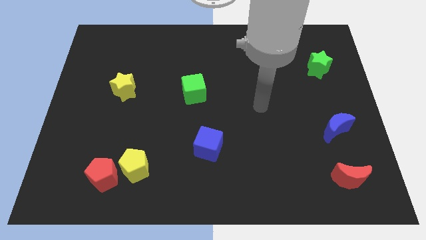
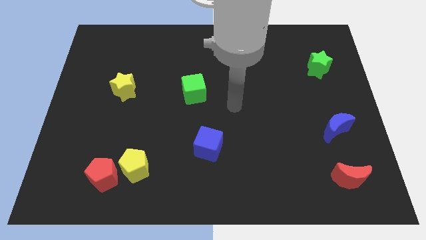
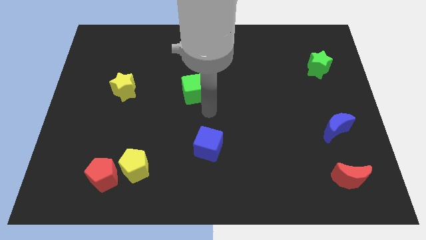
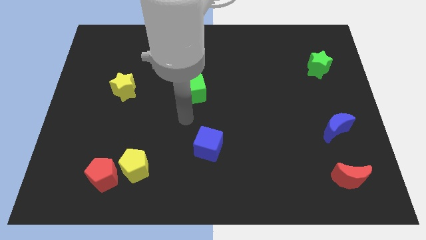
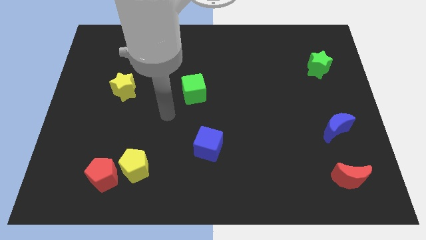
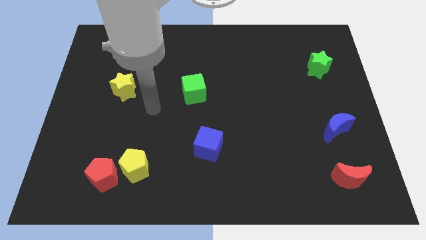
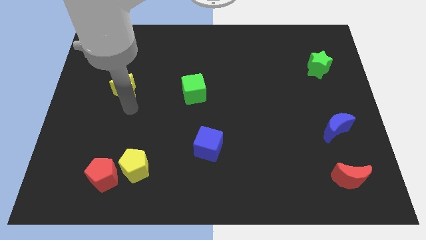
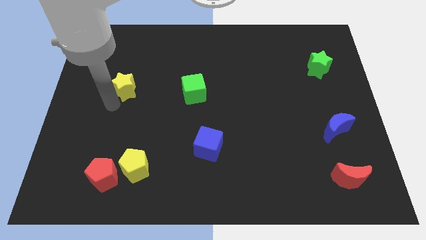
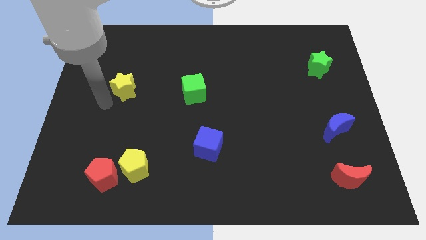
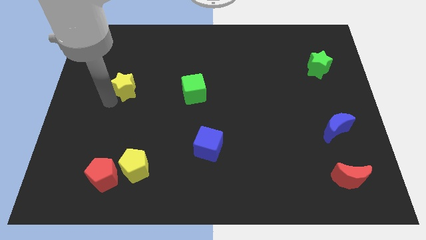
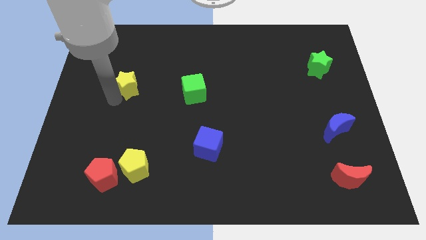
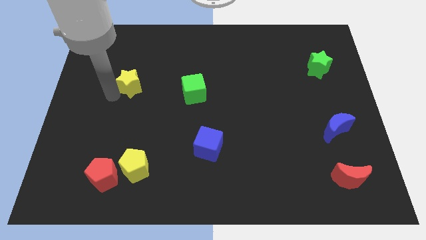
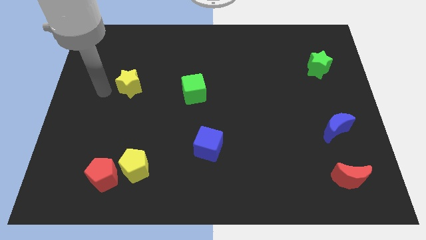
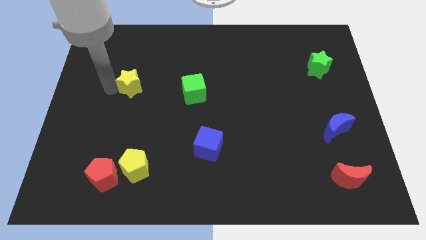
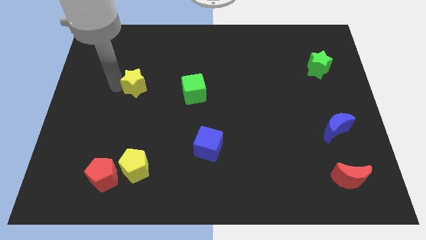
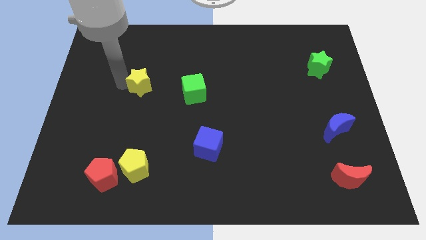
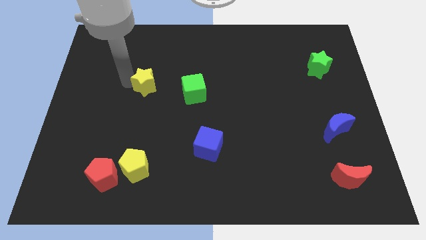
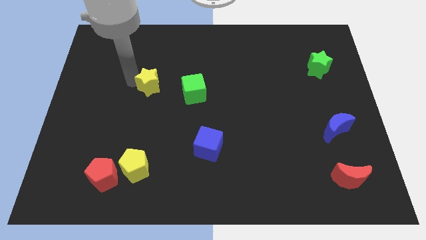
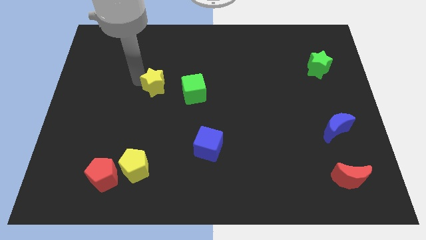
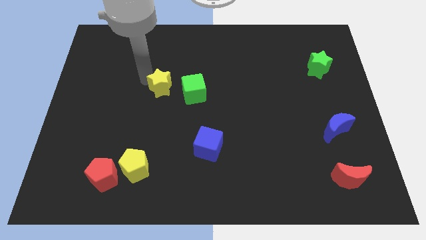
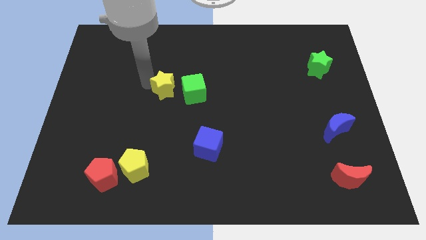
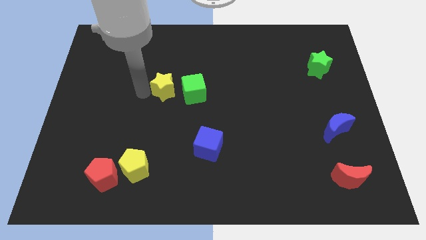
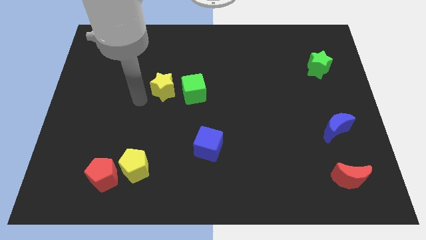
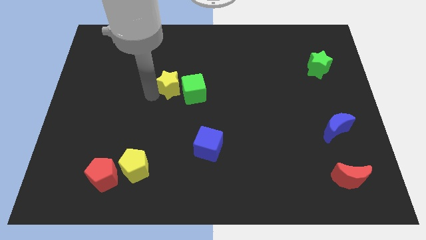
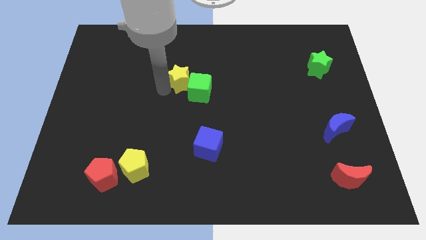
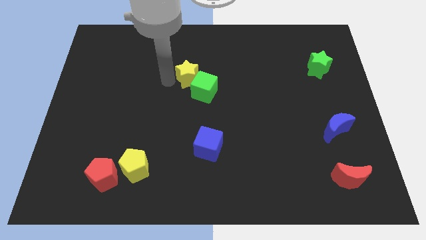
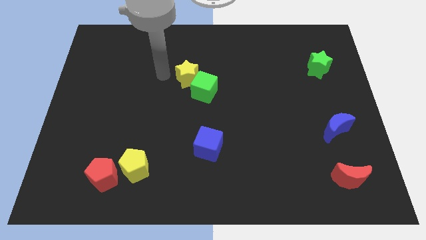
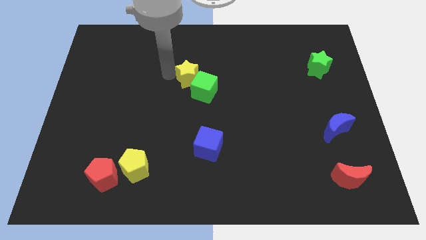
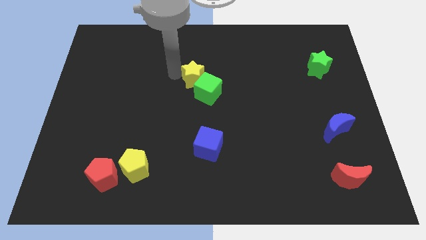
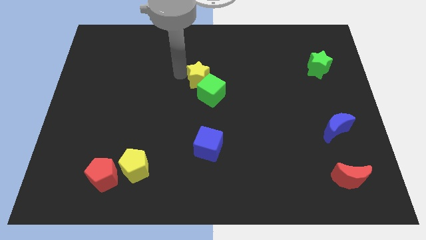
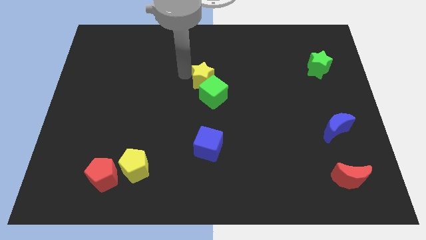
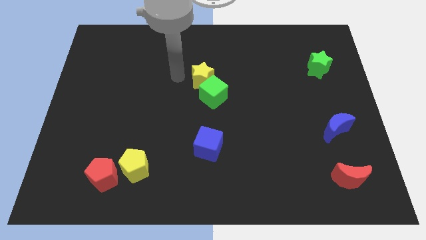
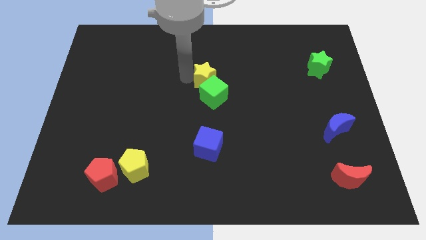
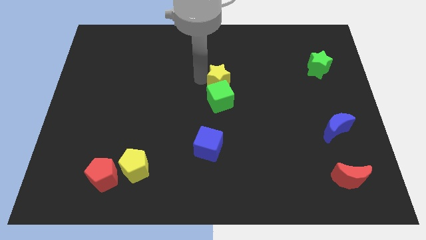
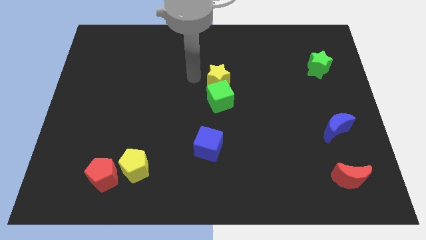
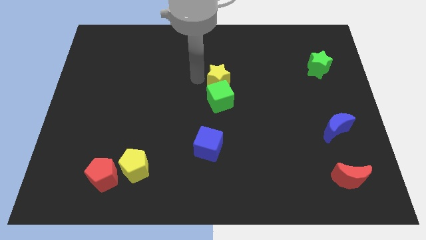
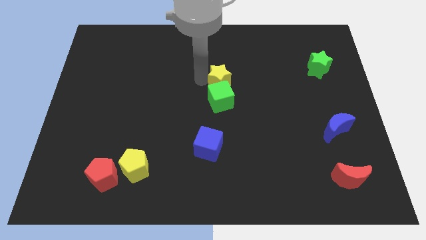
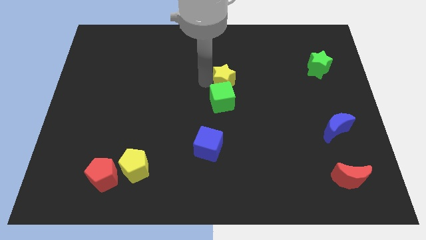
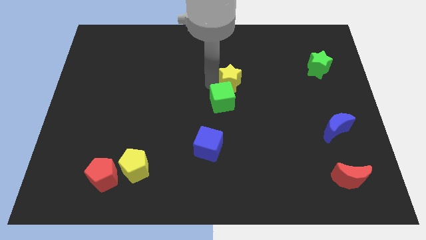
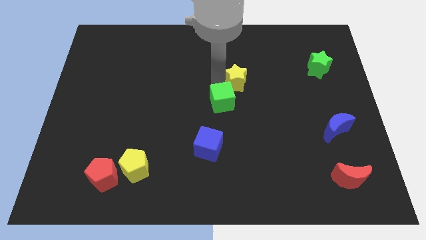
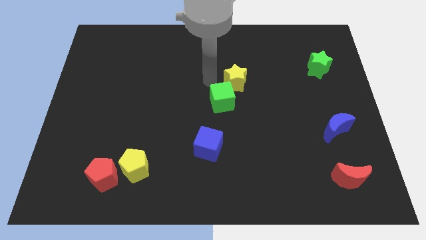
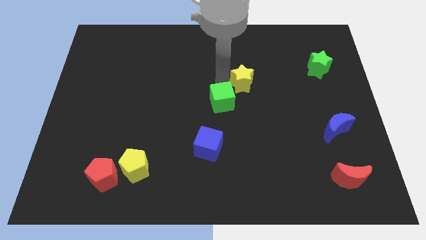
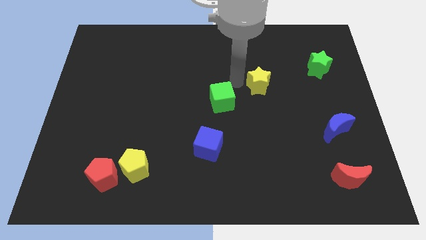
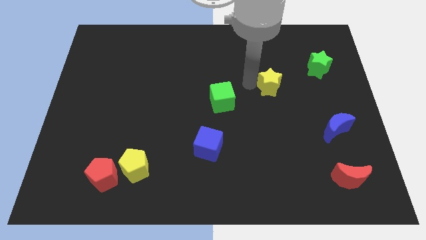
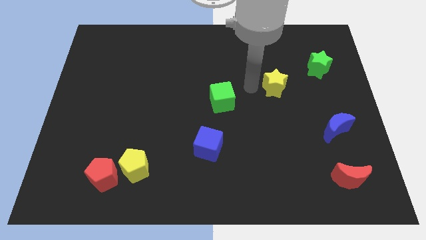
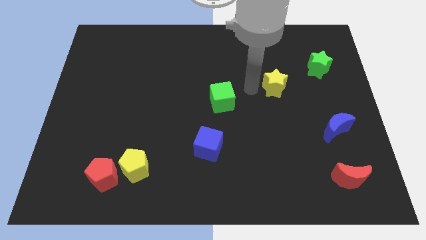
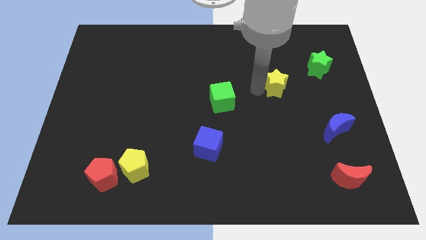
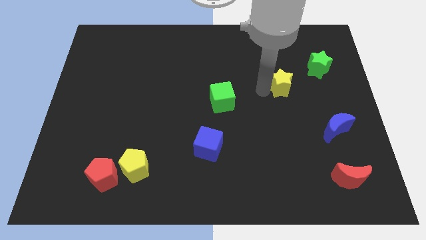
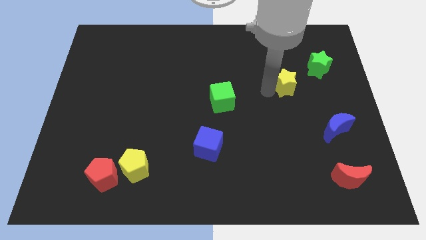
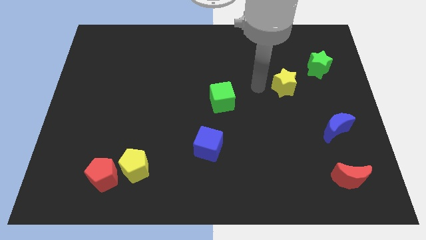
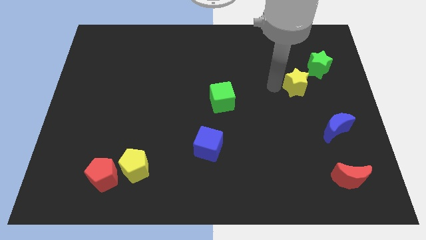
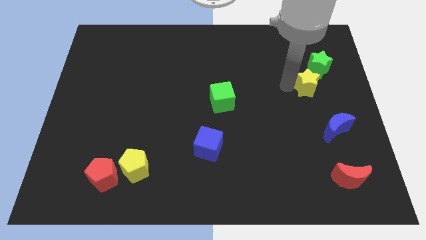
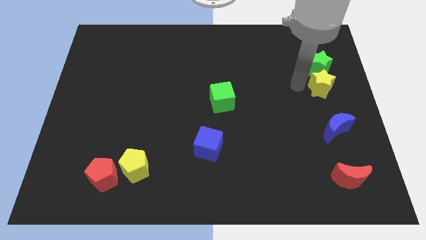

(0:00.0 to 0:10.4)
move the yellow star to the right side of the board

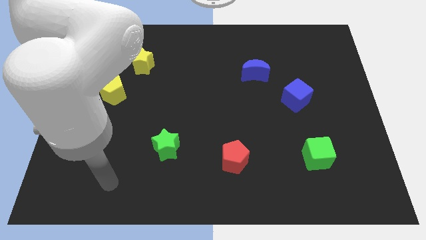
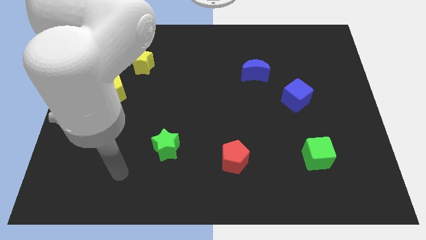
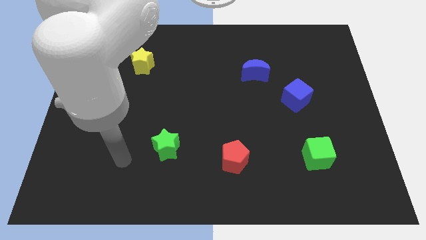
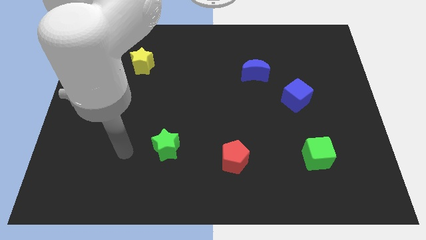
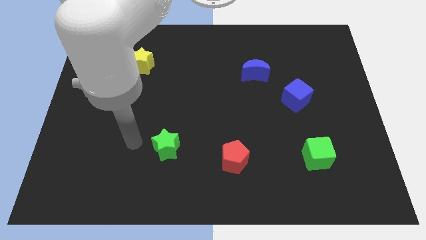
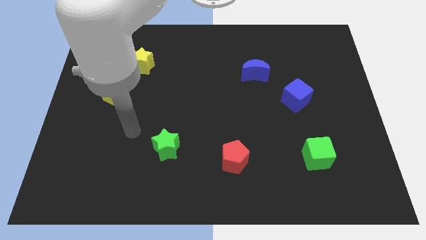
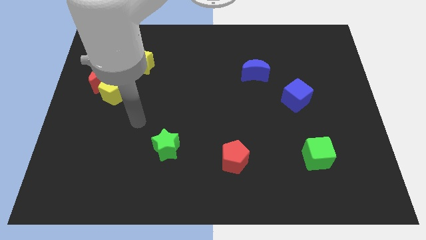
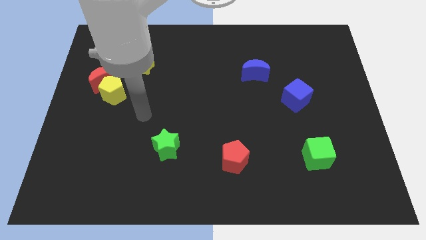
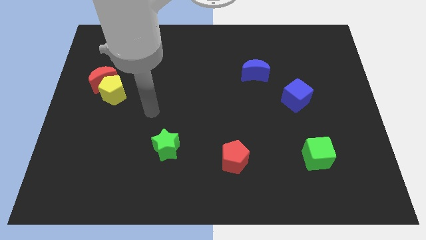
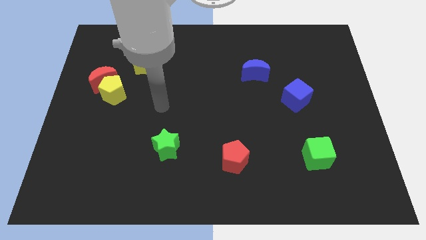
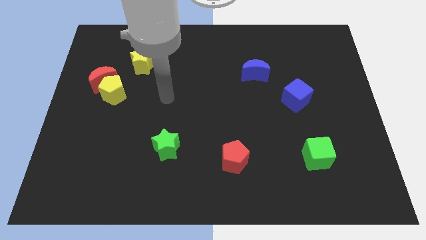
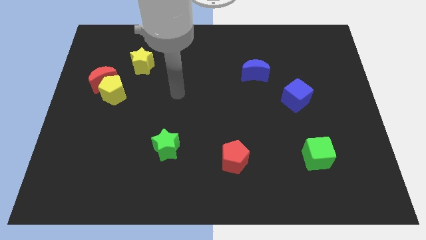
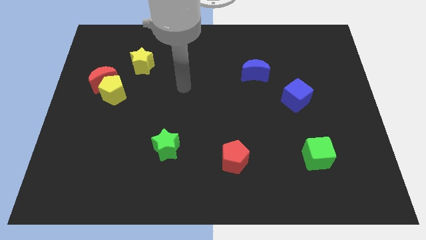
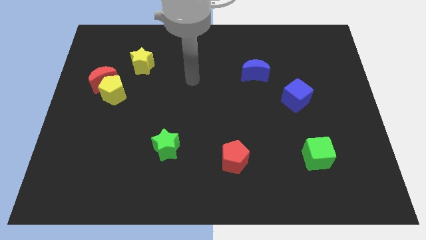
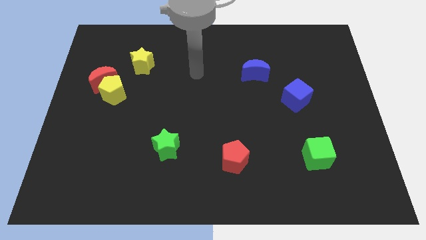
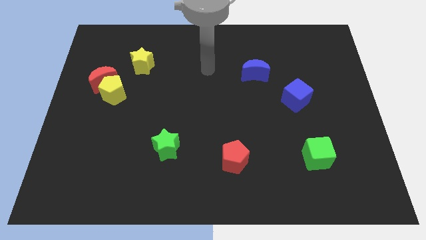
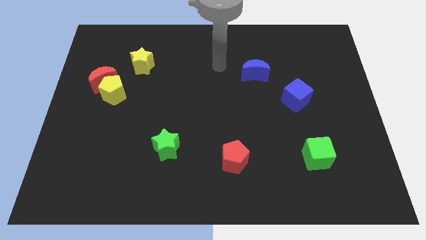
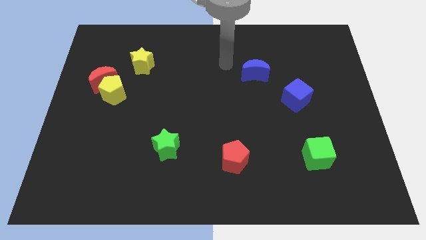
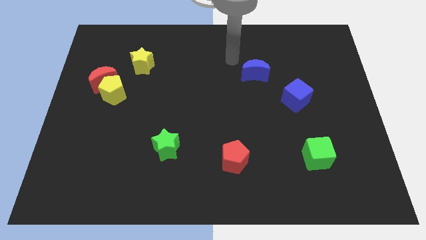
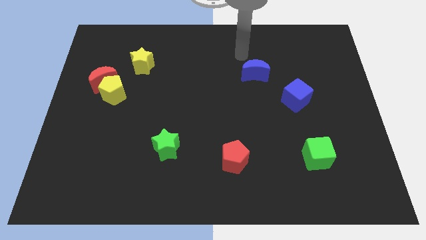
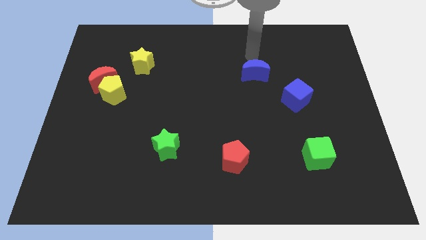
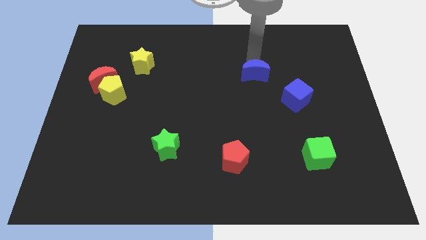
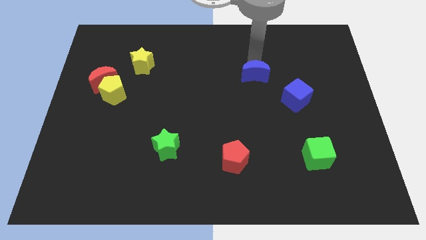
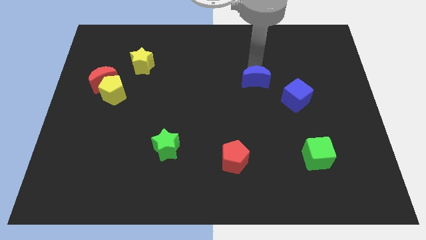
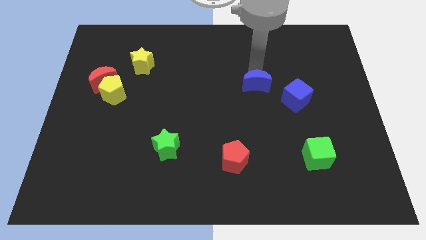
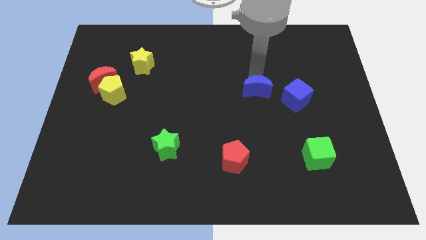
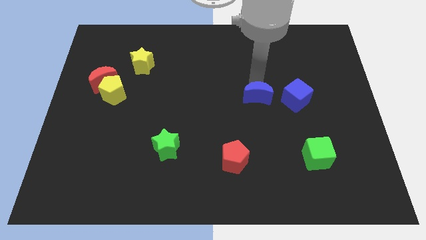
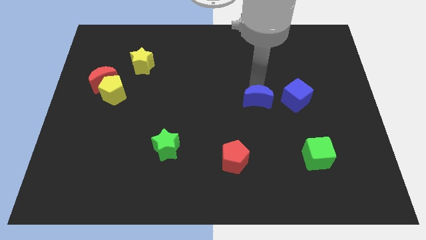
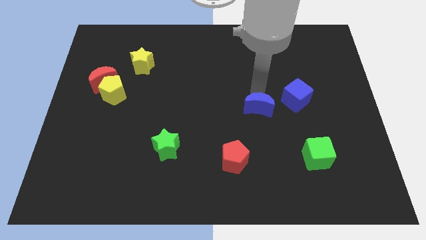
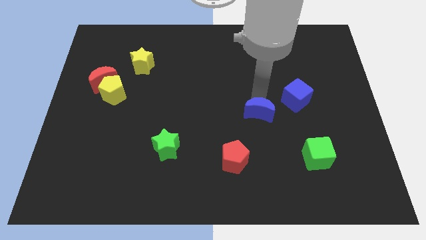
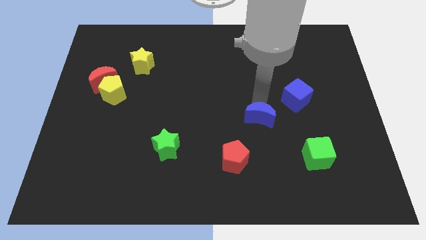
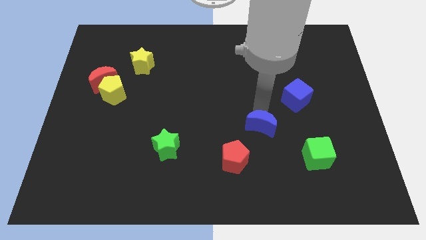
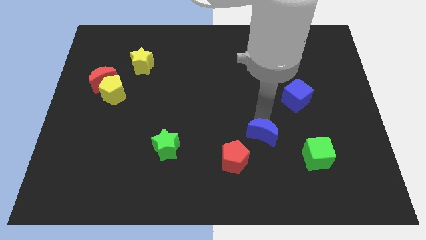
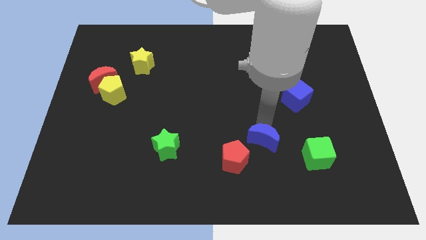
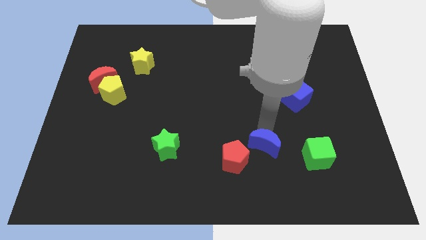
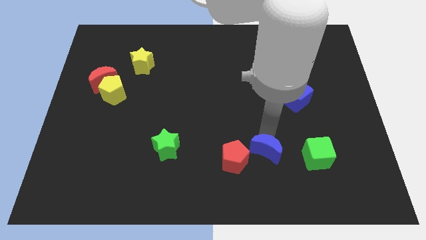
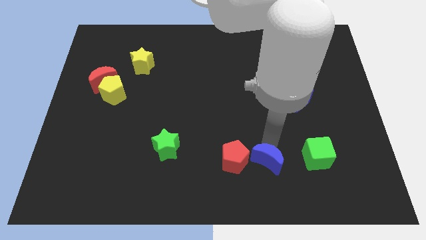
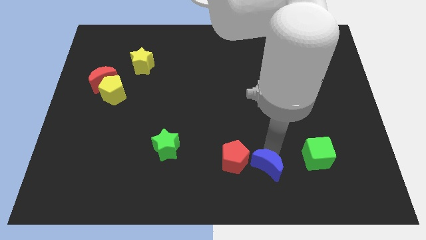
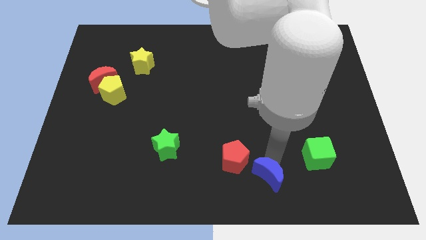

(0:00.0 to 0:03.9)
put the blue moon to the bottom
